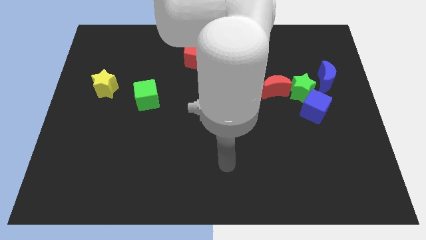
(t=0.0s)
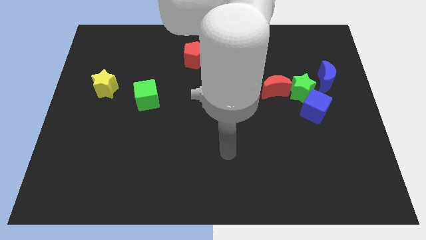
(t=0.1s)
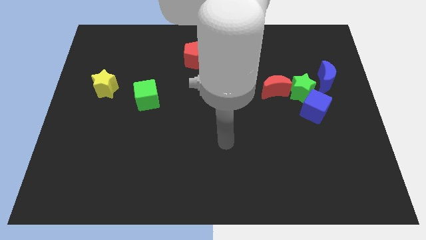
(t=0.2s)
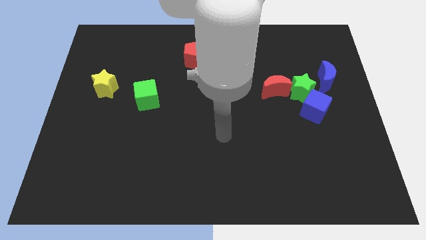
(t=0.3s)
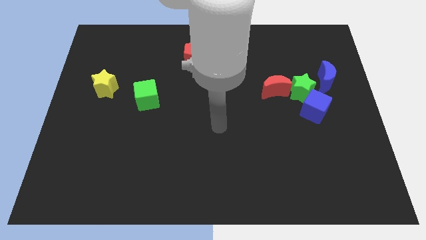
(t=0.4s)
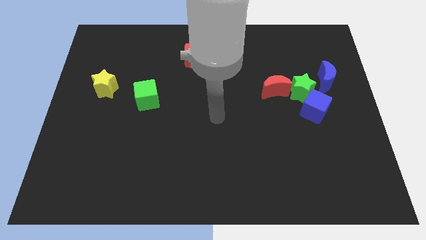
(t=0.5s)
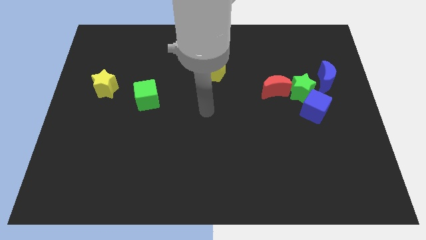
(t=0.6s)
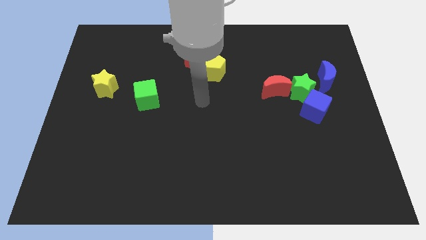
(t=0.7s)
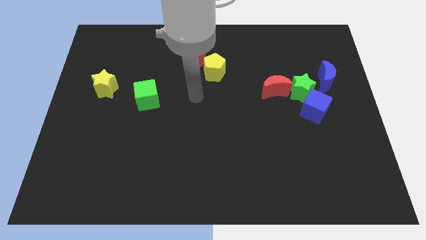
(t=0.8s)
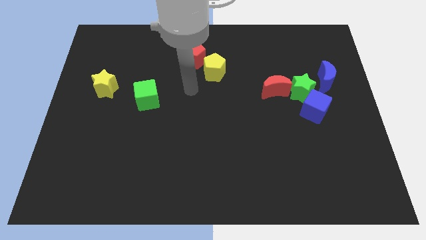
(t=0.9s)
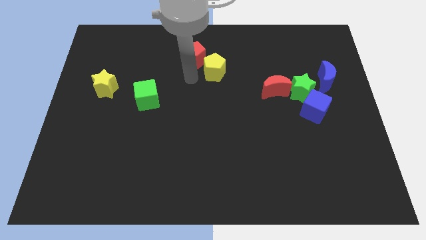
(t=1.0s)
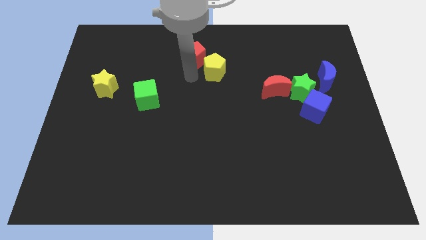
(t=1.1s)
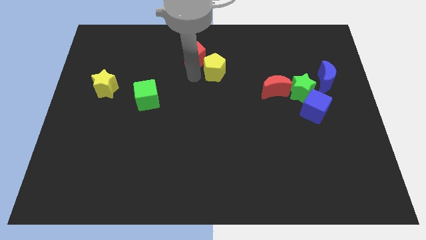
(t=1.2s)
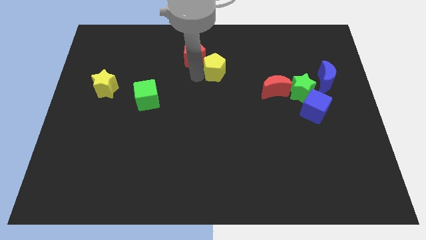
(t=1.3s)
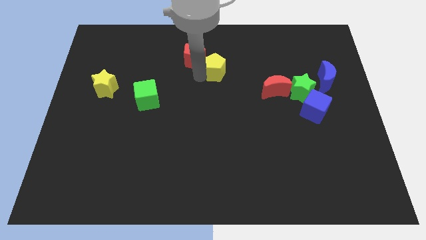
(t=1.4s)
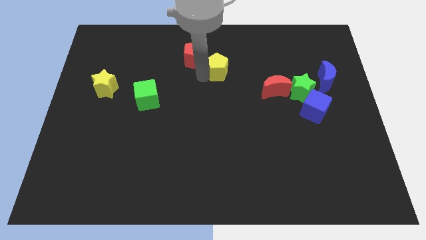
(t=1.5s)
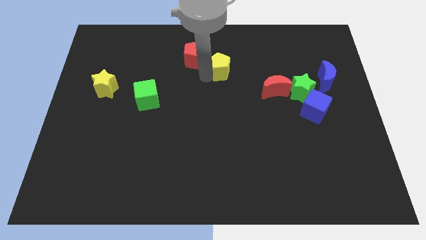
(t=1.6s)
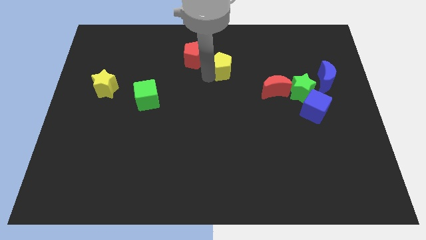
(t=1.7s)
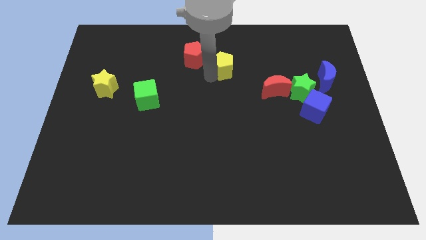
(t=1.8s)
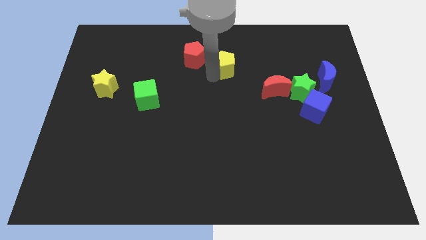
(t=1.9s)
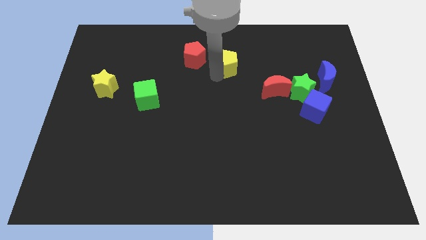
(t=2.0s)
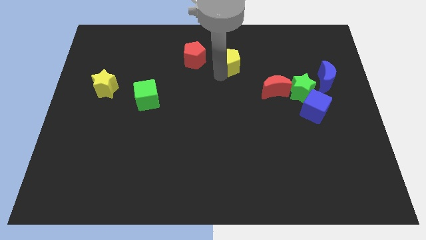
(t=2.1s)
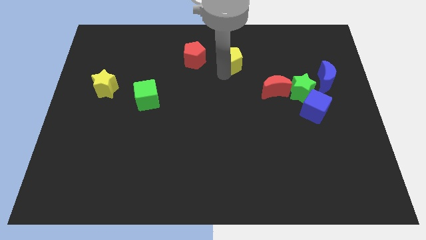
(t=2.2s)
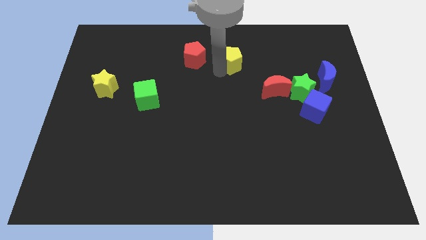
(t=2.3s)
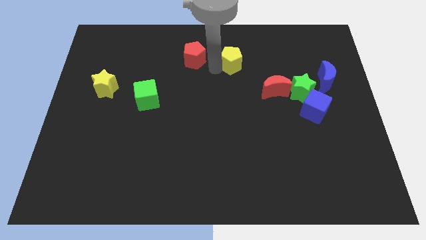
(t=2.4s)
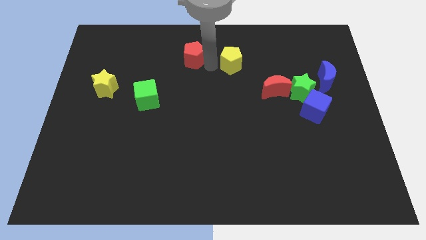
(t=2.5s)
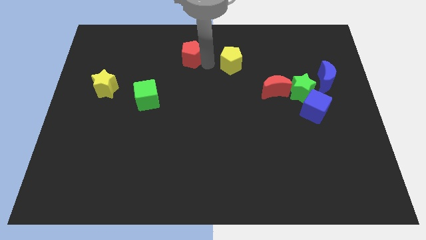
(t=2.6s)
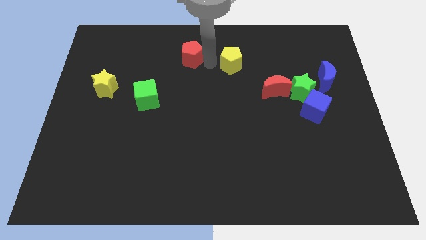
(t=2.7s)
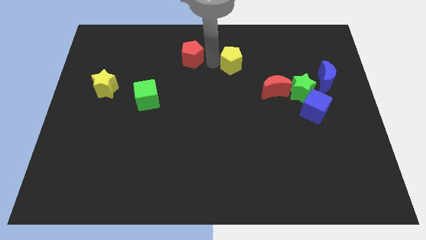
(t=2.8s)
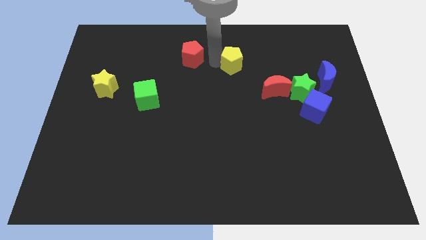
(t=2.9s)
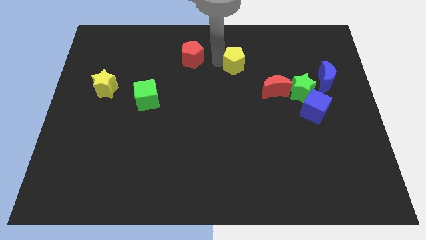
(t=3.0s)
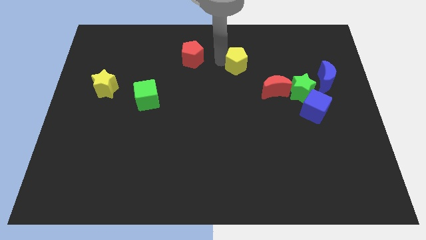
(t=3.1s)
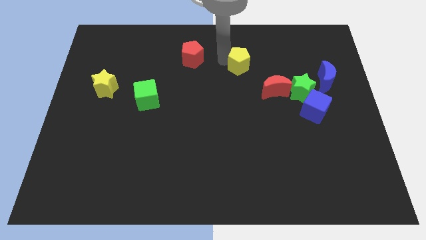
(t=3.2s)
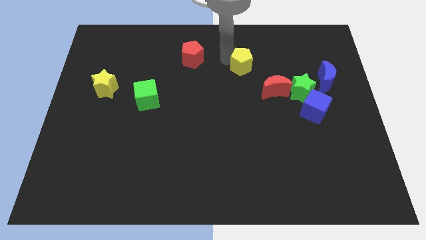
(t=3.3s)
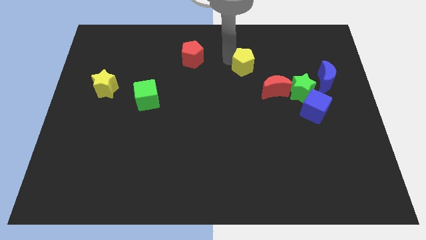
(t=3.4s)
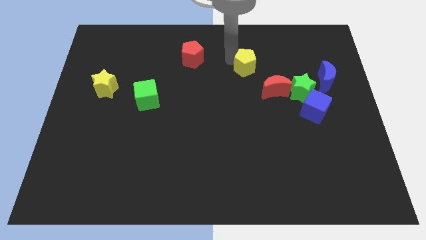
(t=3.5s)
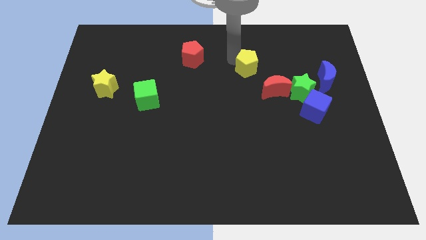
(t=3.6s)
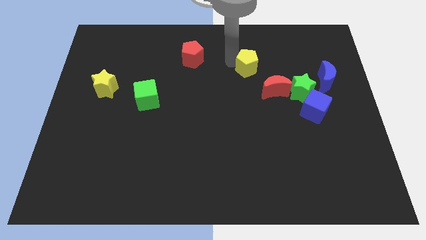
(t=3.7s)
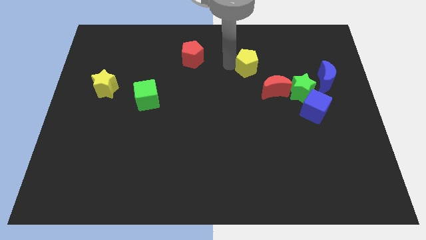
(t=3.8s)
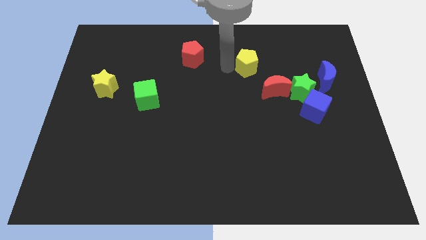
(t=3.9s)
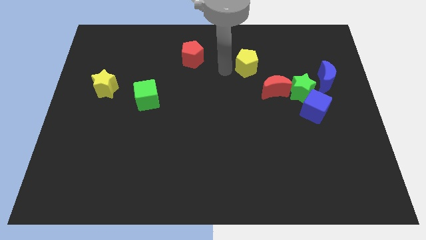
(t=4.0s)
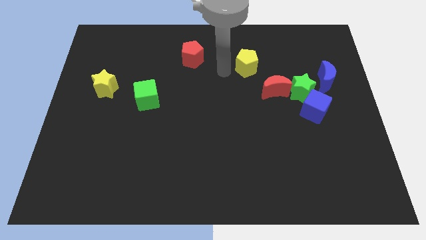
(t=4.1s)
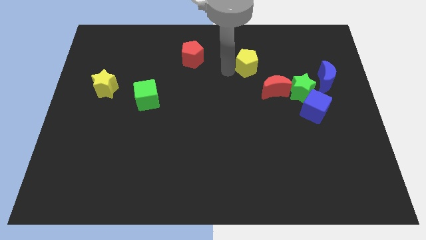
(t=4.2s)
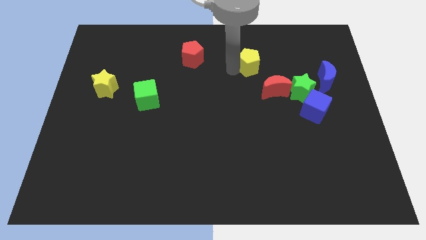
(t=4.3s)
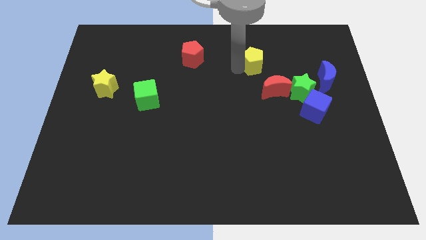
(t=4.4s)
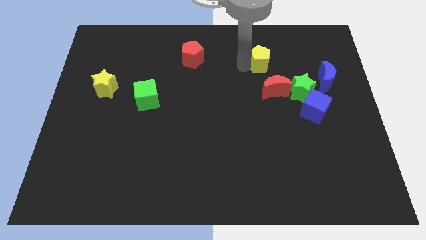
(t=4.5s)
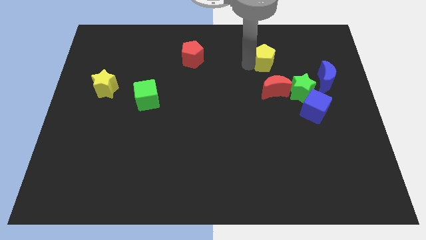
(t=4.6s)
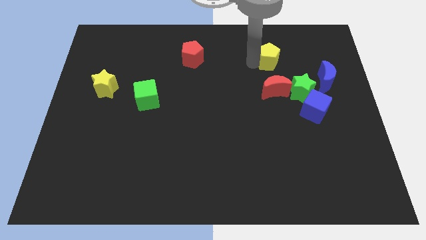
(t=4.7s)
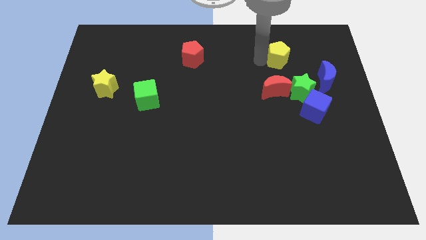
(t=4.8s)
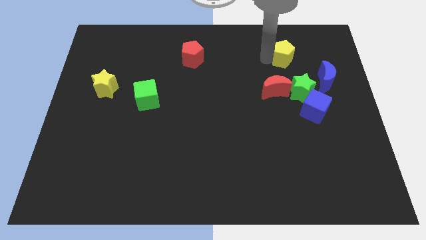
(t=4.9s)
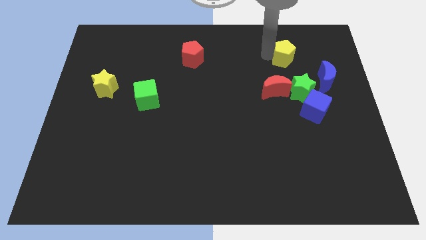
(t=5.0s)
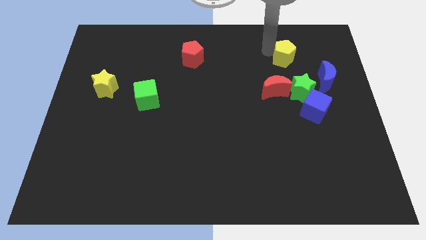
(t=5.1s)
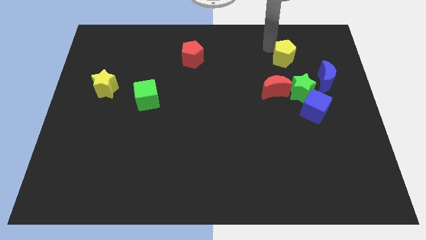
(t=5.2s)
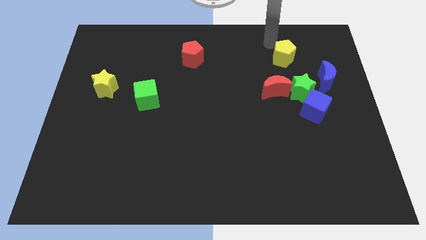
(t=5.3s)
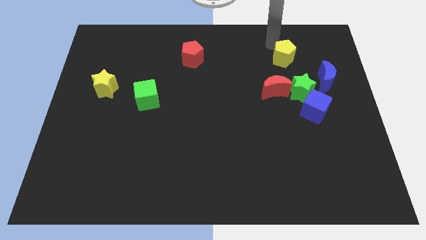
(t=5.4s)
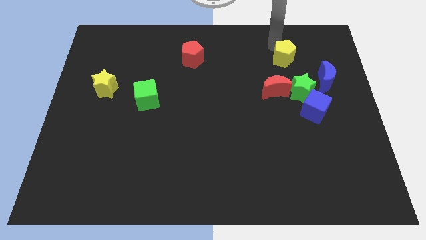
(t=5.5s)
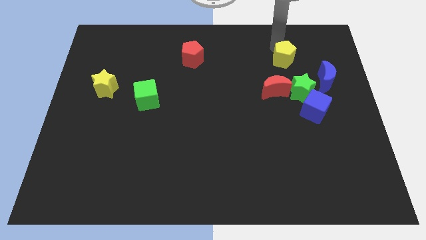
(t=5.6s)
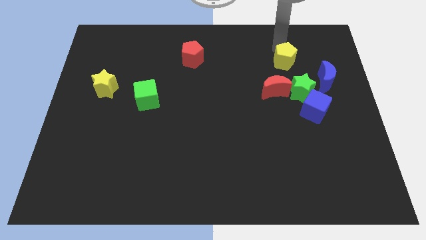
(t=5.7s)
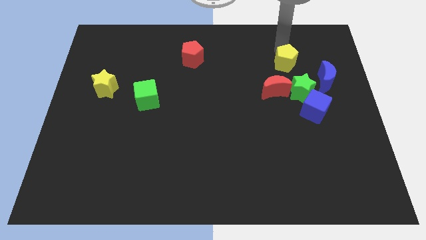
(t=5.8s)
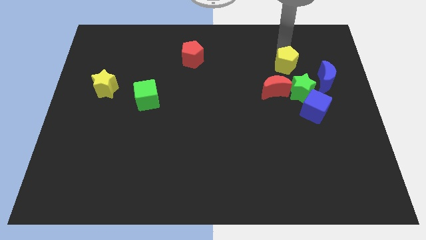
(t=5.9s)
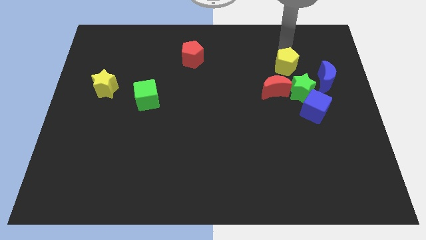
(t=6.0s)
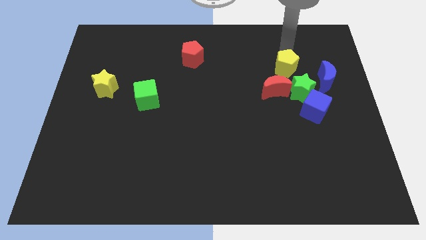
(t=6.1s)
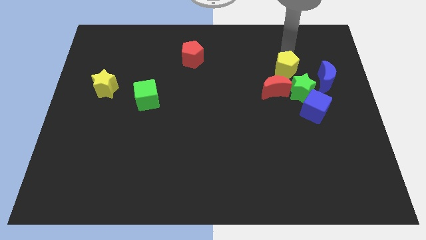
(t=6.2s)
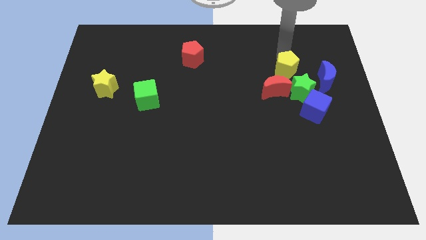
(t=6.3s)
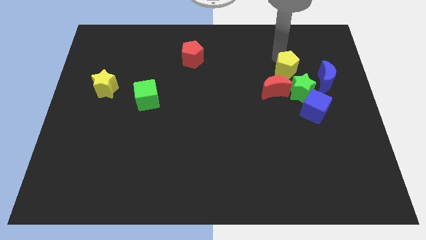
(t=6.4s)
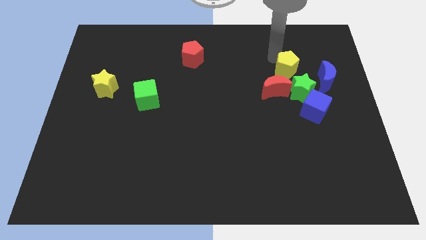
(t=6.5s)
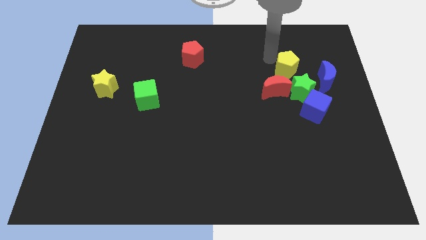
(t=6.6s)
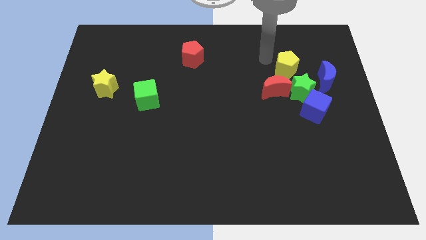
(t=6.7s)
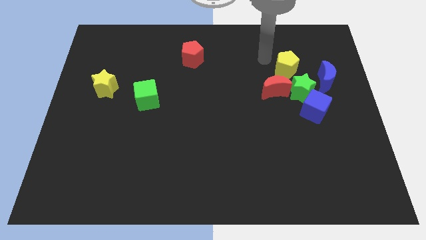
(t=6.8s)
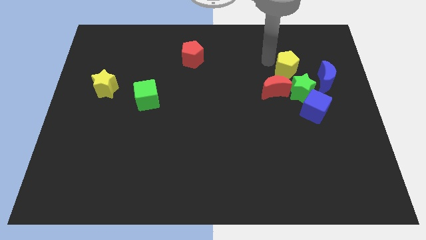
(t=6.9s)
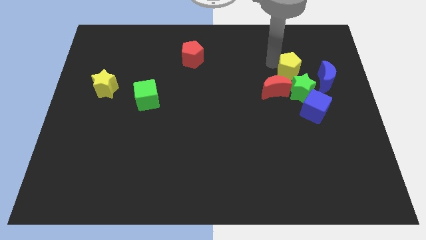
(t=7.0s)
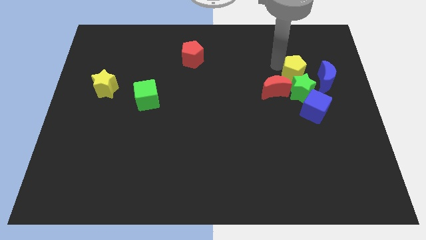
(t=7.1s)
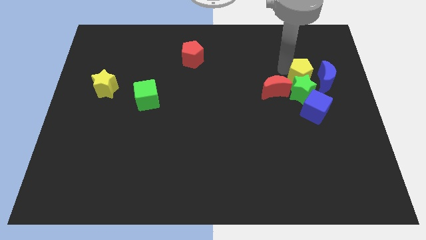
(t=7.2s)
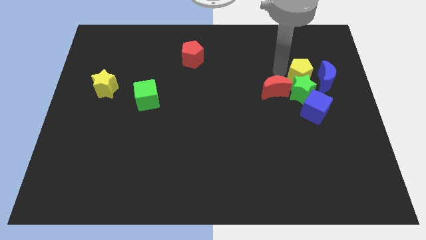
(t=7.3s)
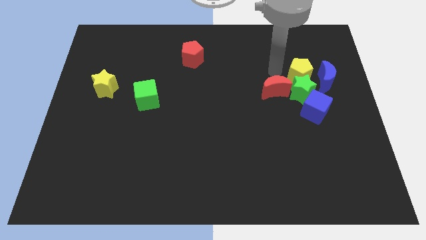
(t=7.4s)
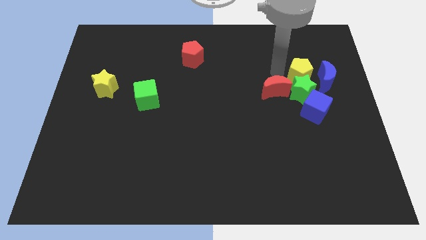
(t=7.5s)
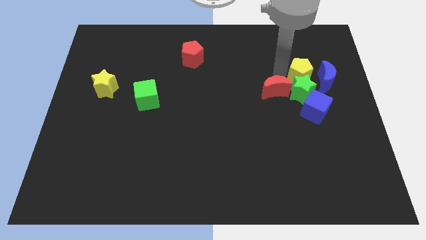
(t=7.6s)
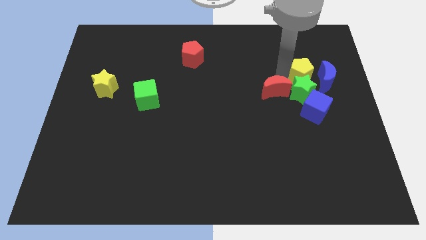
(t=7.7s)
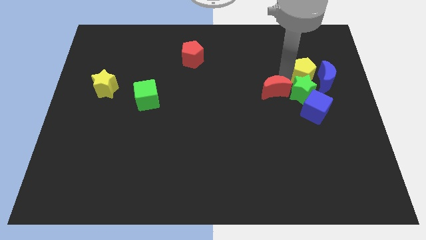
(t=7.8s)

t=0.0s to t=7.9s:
move the yellow pentagon next to the blue moon
